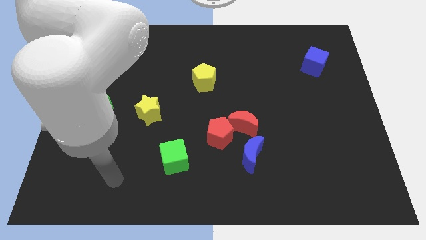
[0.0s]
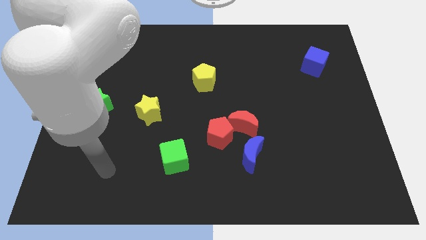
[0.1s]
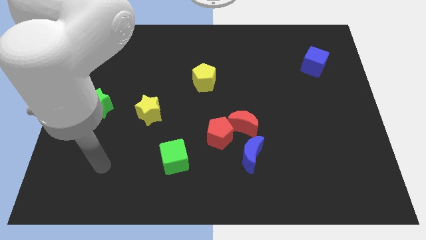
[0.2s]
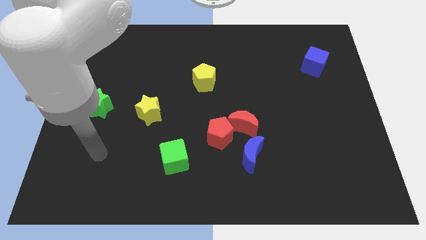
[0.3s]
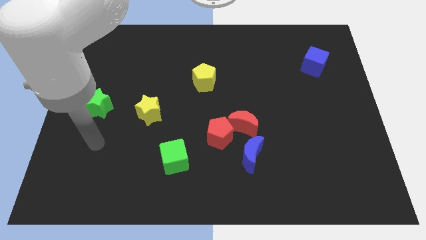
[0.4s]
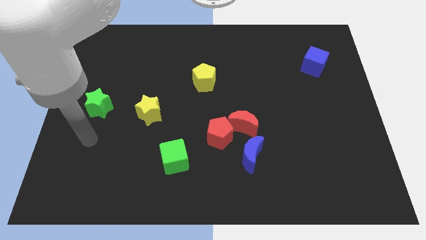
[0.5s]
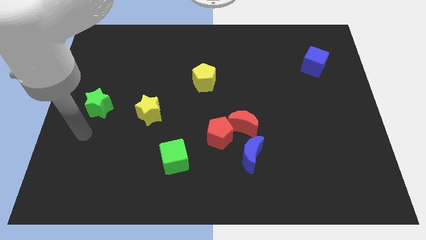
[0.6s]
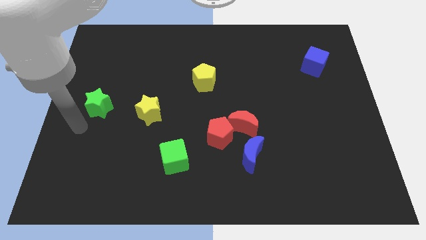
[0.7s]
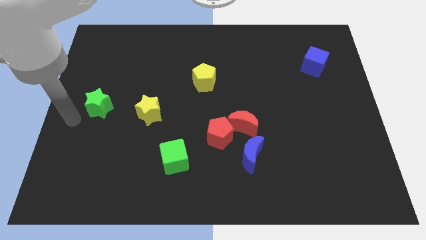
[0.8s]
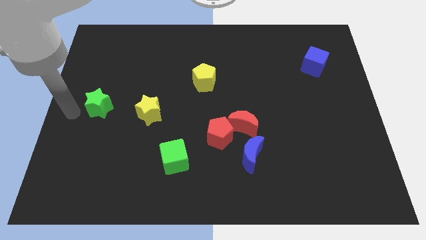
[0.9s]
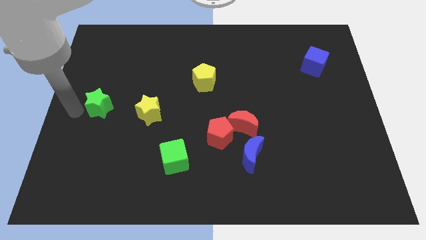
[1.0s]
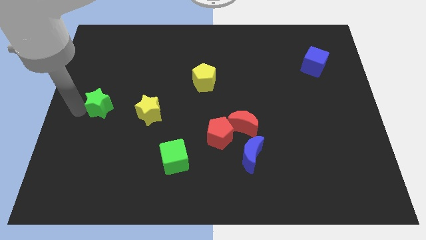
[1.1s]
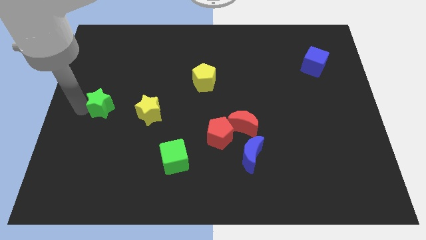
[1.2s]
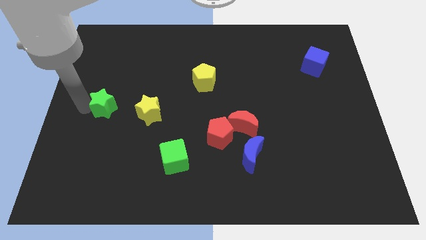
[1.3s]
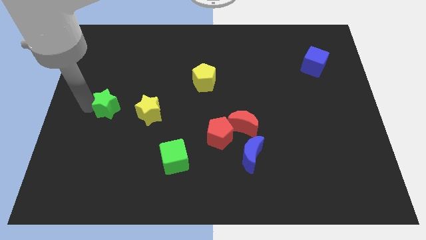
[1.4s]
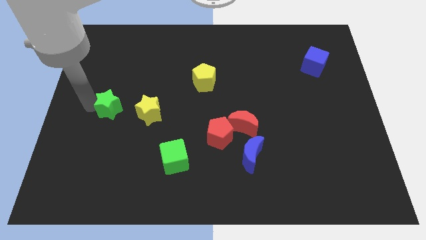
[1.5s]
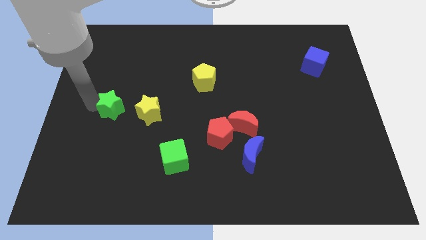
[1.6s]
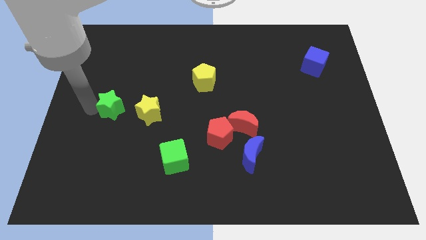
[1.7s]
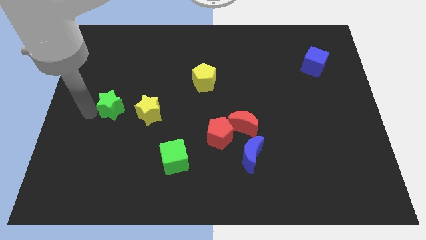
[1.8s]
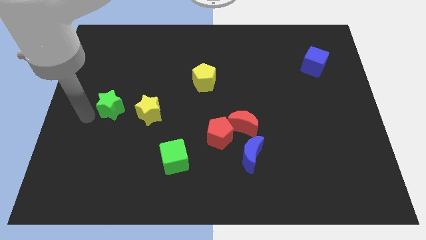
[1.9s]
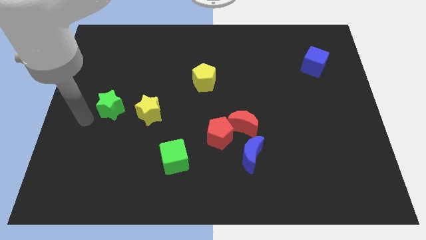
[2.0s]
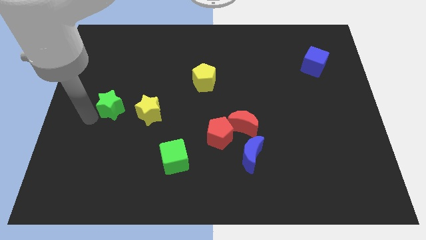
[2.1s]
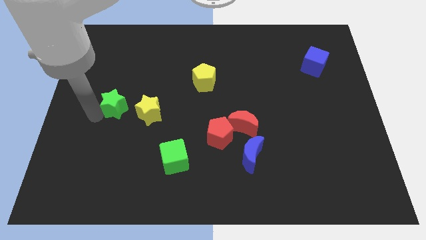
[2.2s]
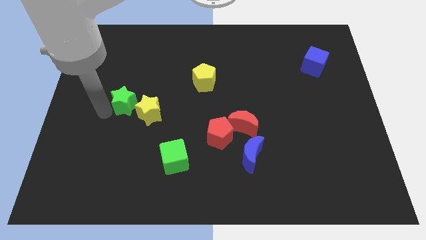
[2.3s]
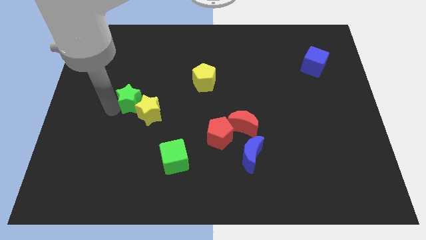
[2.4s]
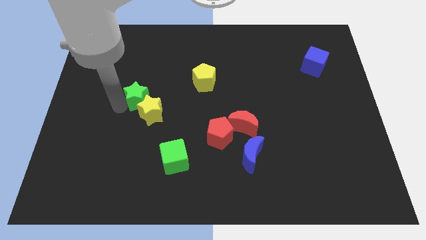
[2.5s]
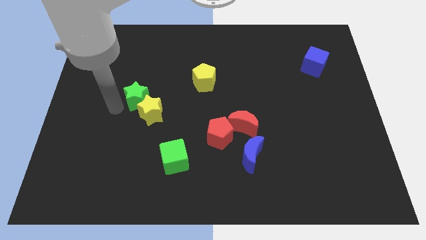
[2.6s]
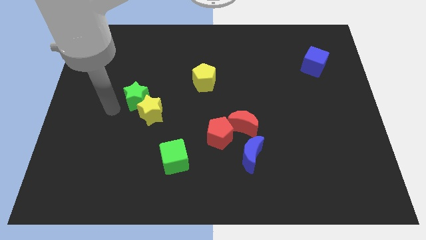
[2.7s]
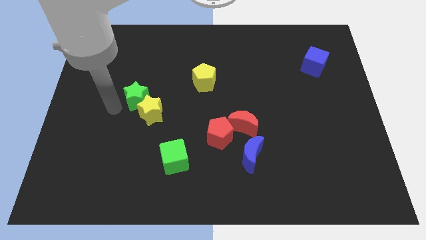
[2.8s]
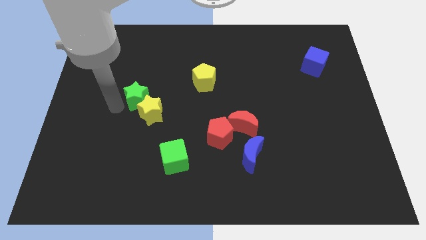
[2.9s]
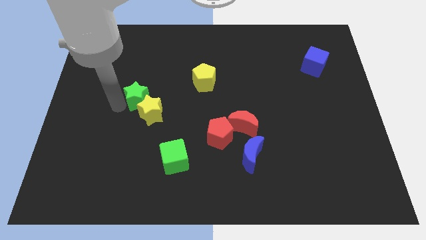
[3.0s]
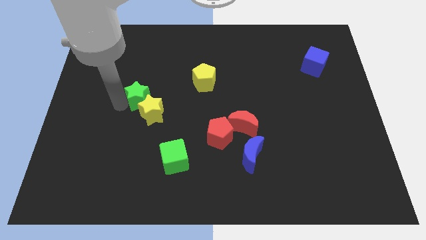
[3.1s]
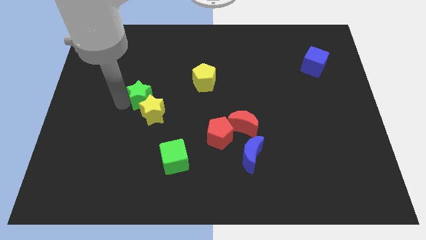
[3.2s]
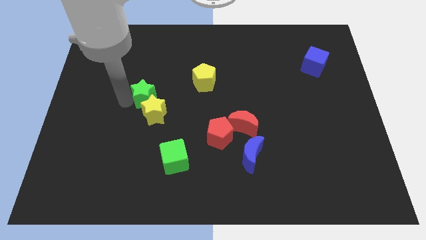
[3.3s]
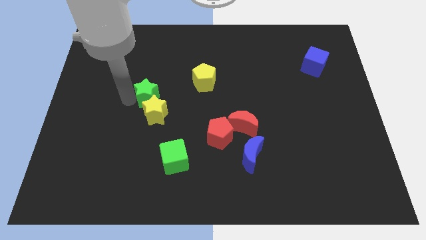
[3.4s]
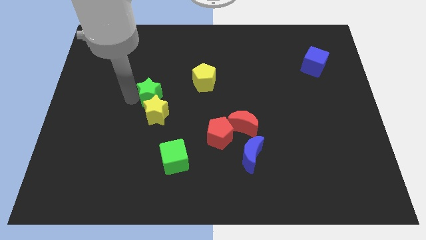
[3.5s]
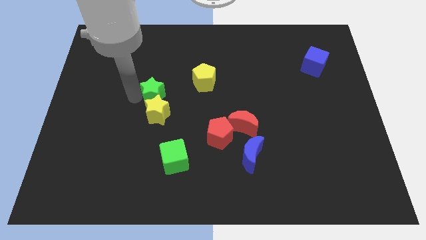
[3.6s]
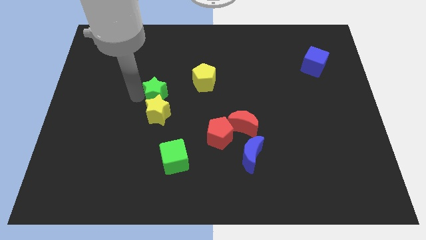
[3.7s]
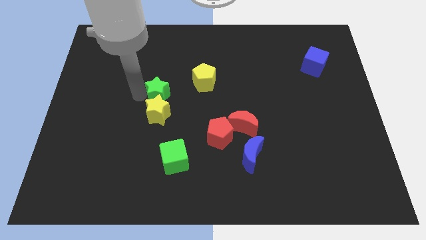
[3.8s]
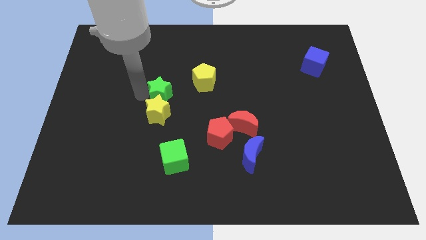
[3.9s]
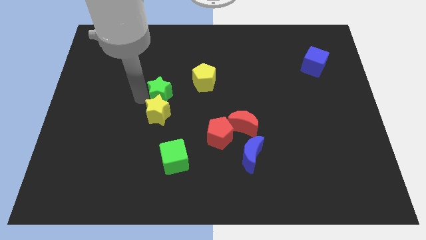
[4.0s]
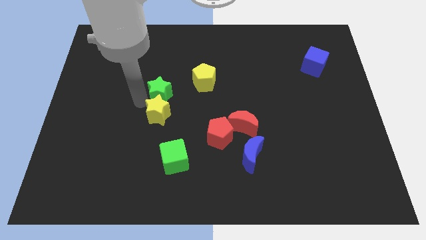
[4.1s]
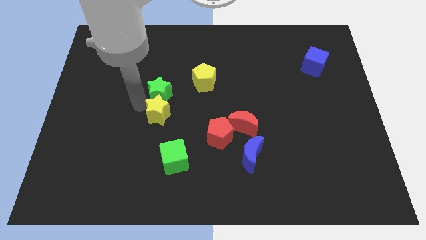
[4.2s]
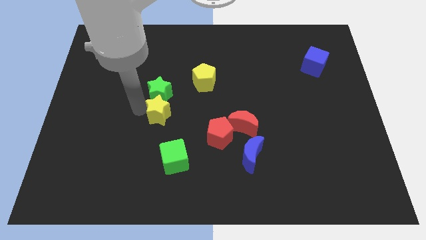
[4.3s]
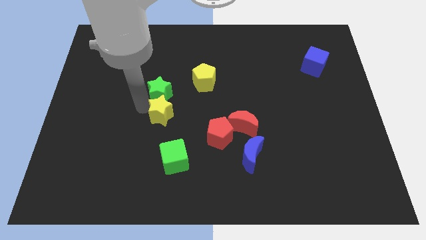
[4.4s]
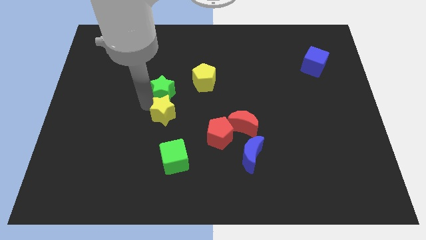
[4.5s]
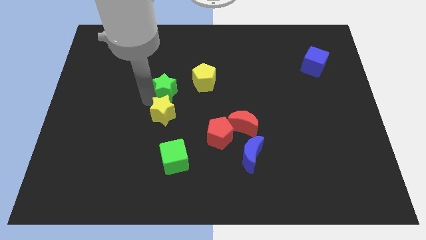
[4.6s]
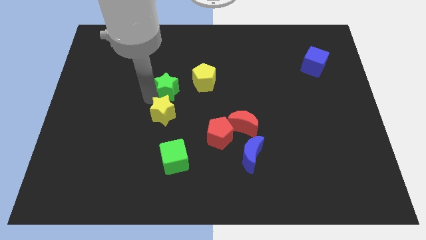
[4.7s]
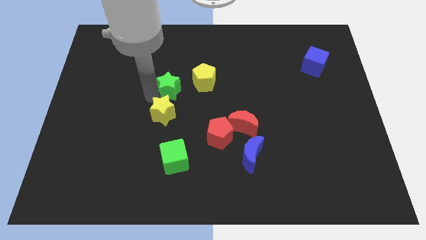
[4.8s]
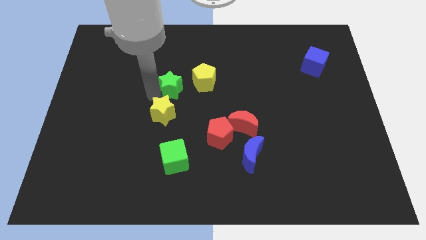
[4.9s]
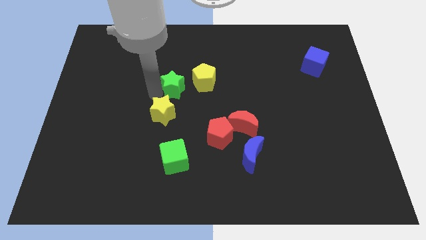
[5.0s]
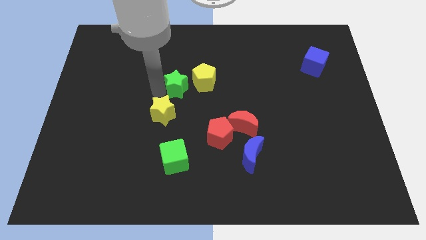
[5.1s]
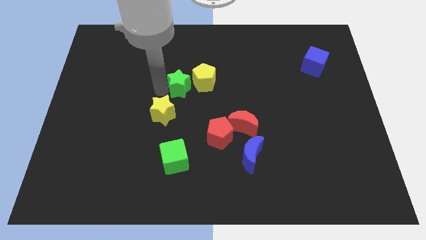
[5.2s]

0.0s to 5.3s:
move the green star towards the yellow pentagon

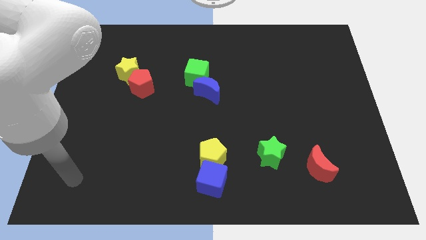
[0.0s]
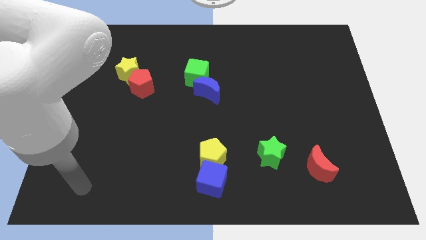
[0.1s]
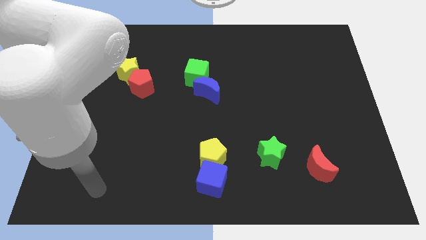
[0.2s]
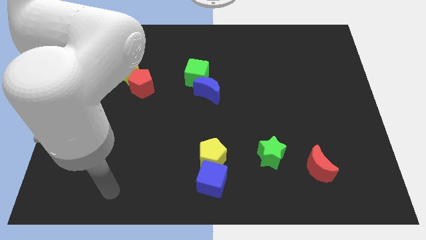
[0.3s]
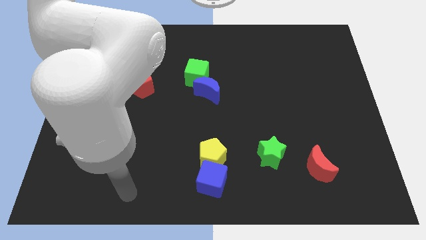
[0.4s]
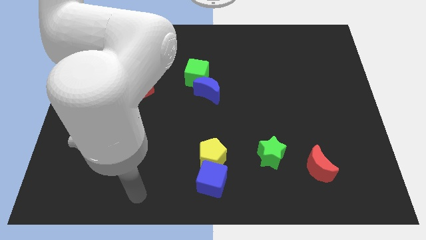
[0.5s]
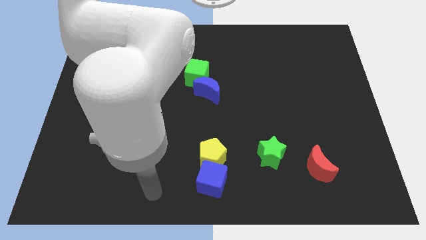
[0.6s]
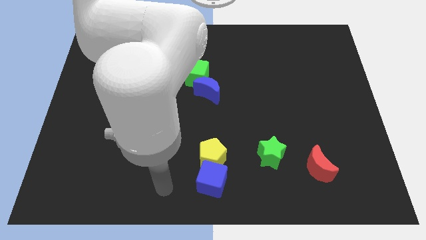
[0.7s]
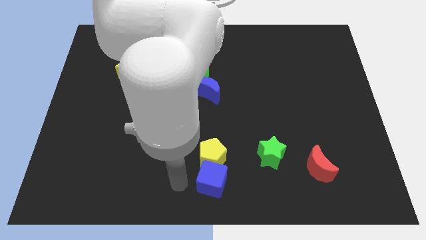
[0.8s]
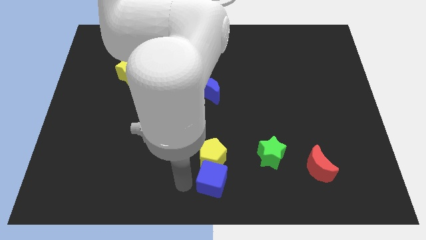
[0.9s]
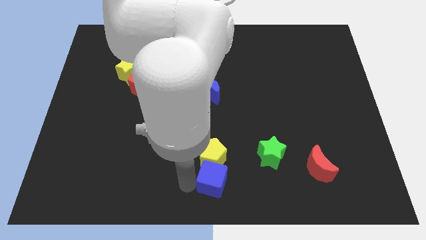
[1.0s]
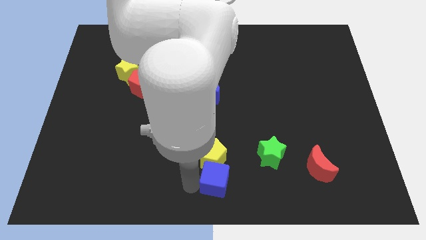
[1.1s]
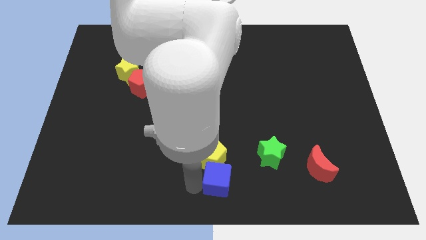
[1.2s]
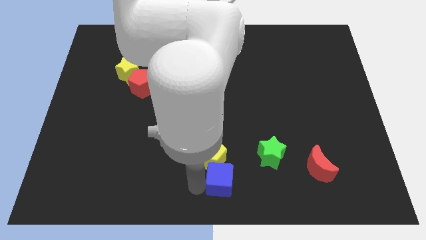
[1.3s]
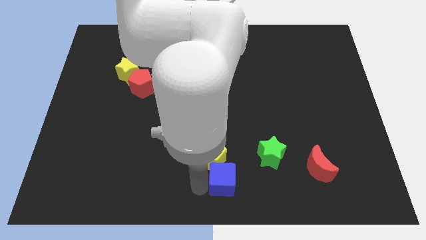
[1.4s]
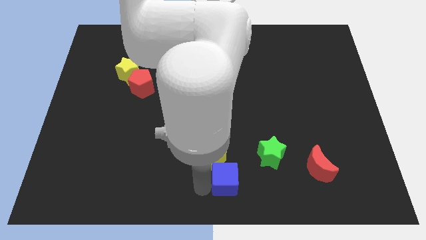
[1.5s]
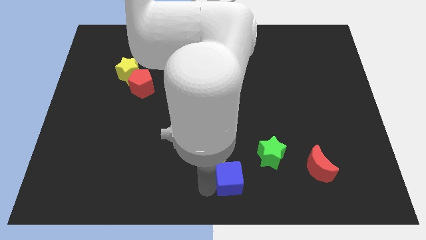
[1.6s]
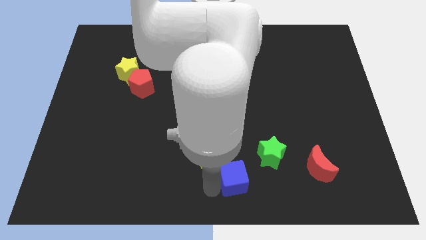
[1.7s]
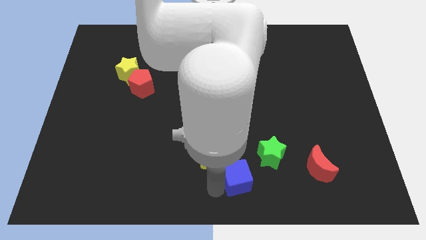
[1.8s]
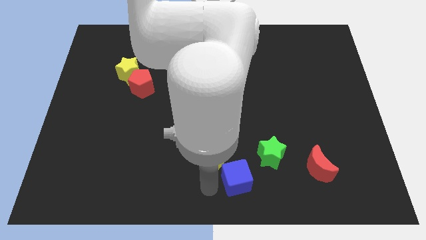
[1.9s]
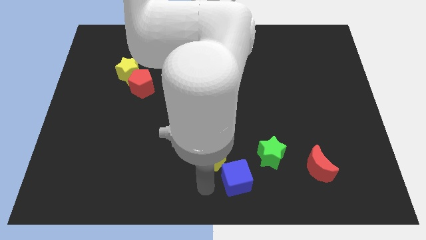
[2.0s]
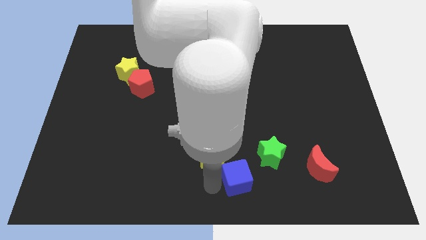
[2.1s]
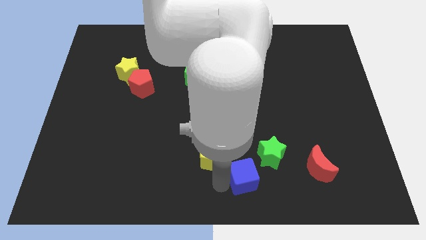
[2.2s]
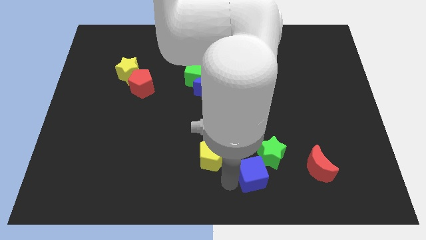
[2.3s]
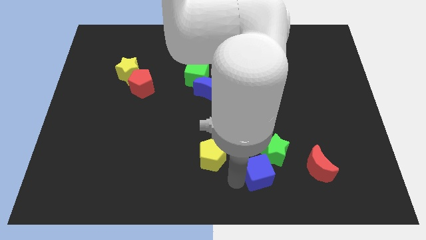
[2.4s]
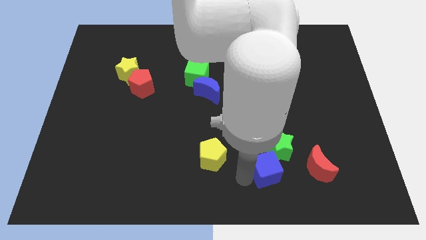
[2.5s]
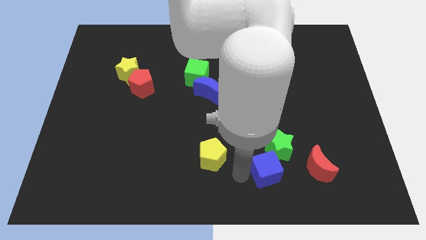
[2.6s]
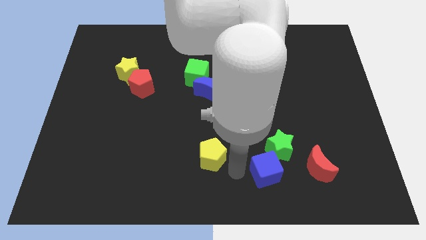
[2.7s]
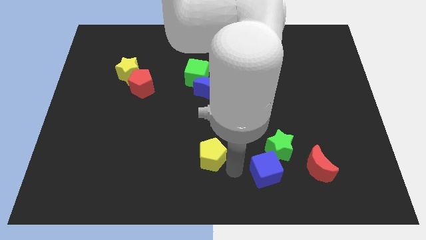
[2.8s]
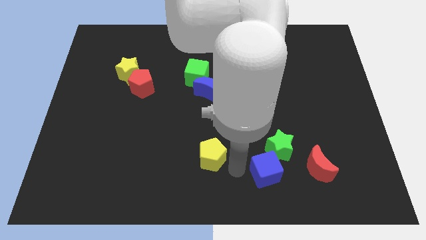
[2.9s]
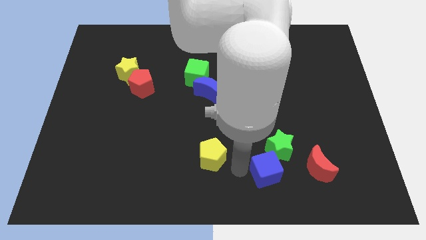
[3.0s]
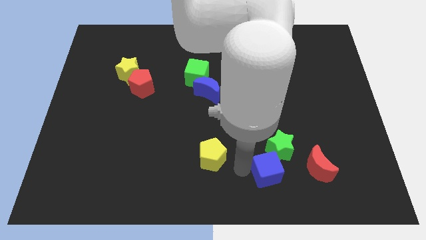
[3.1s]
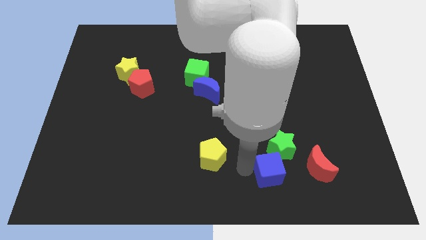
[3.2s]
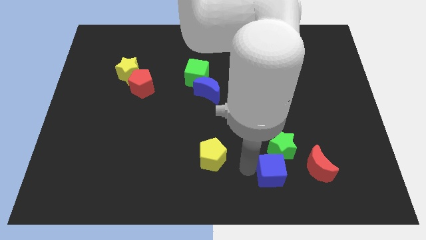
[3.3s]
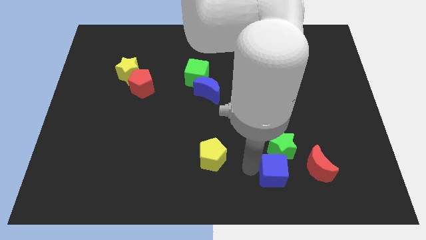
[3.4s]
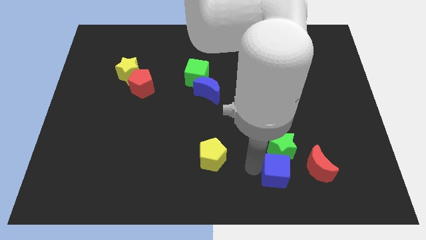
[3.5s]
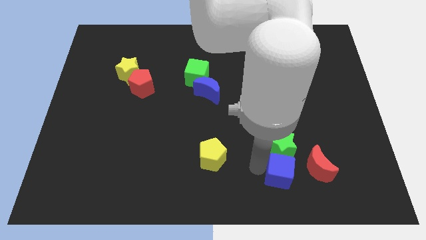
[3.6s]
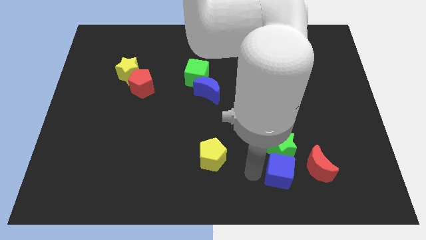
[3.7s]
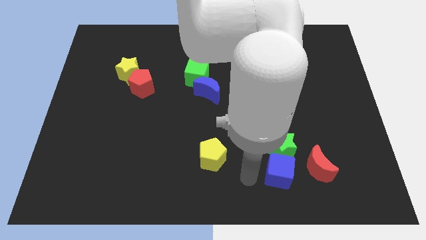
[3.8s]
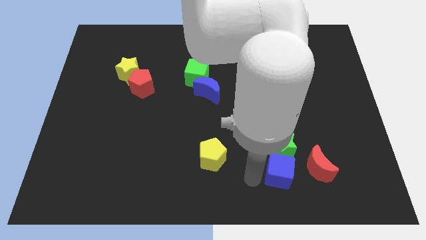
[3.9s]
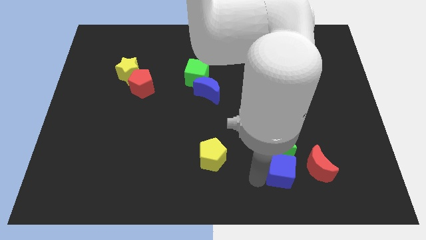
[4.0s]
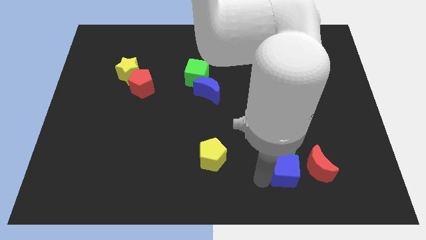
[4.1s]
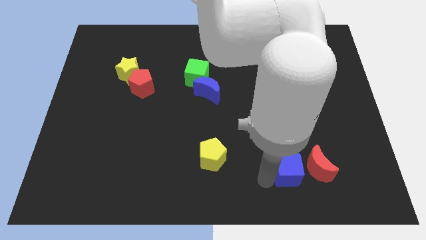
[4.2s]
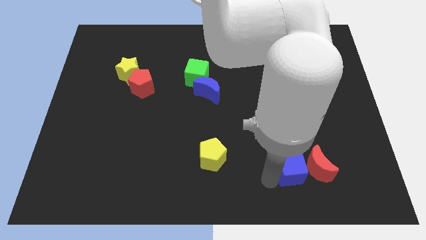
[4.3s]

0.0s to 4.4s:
push the blue cube towards the red moon
